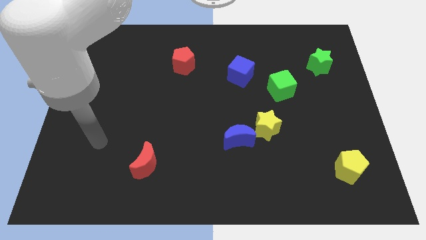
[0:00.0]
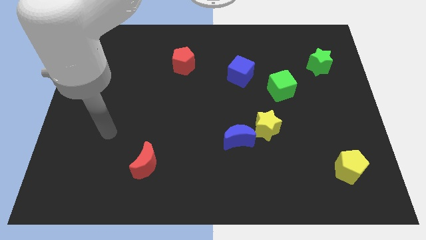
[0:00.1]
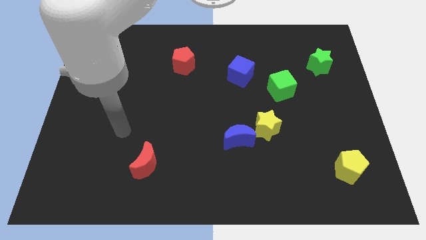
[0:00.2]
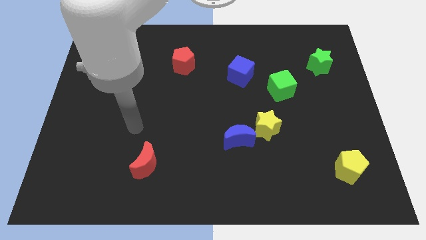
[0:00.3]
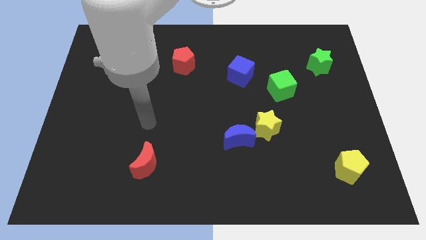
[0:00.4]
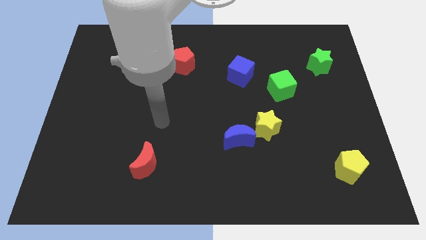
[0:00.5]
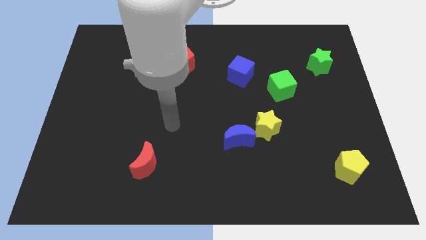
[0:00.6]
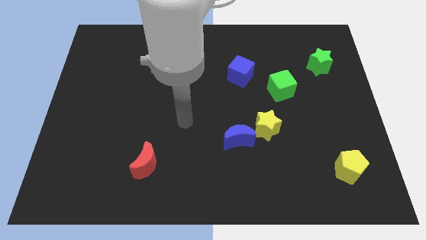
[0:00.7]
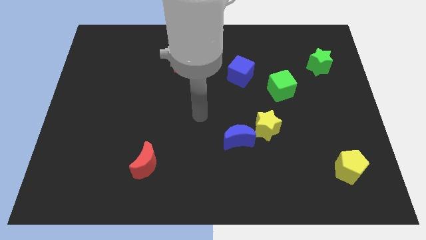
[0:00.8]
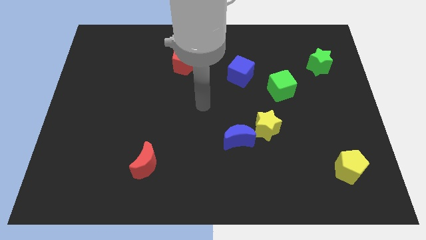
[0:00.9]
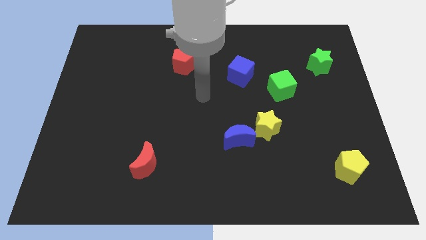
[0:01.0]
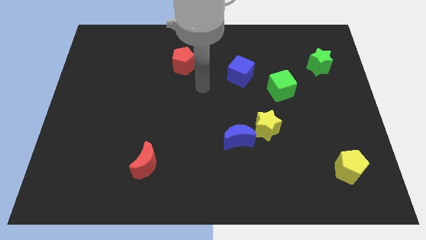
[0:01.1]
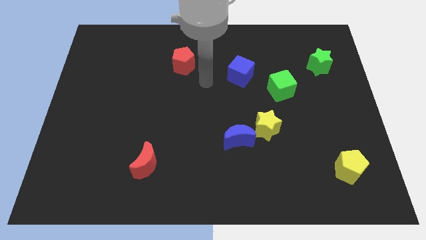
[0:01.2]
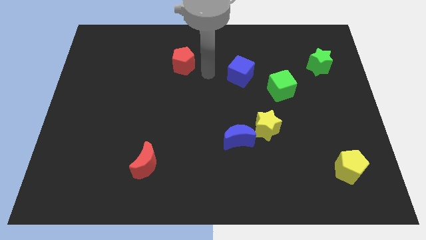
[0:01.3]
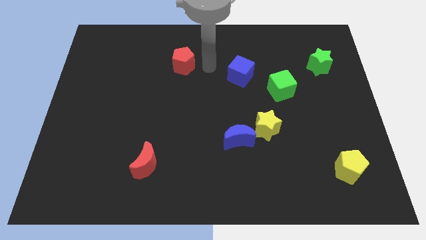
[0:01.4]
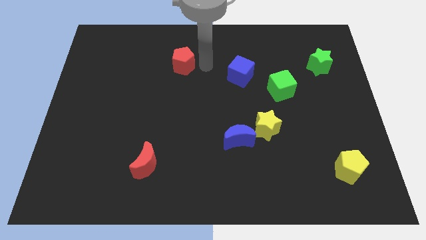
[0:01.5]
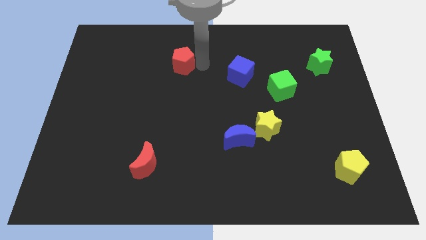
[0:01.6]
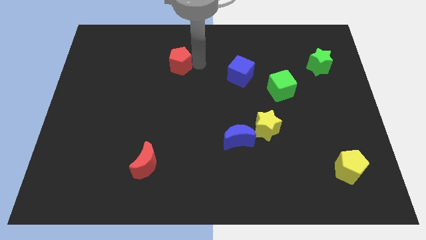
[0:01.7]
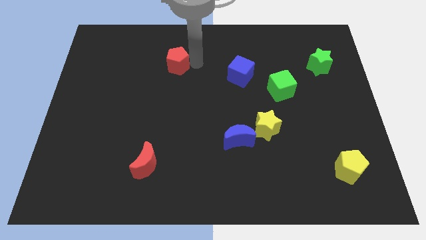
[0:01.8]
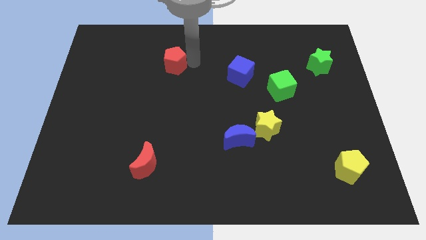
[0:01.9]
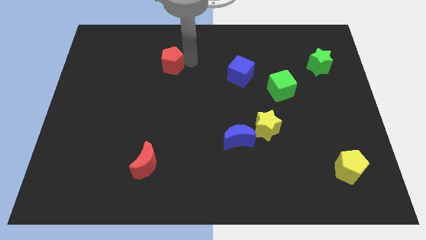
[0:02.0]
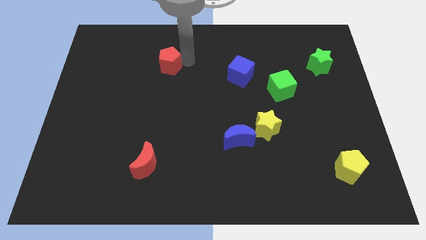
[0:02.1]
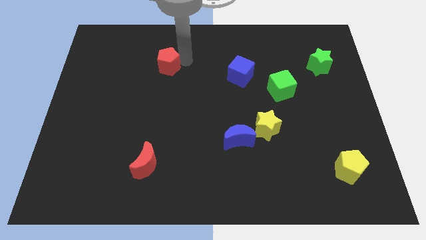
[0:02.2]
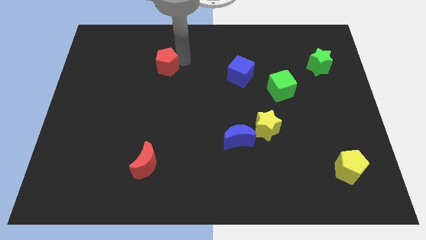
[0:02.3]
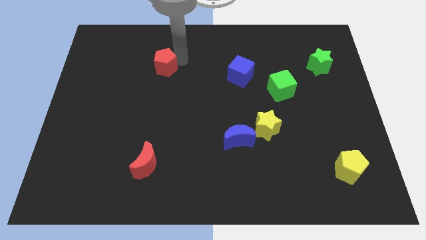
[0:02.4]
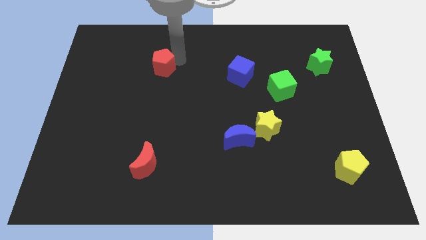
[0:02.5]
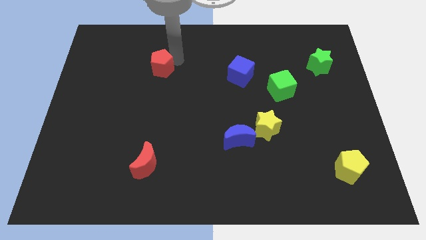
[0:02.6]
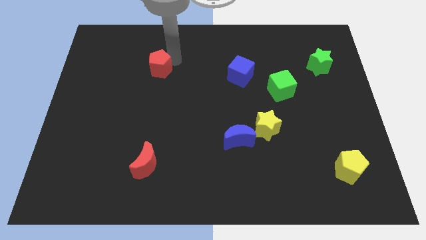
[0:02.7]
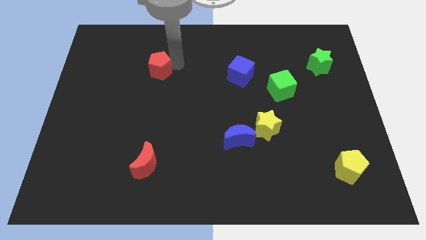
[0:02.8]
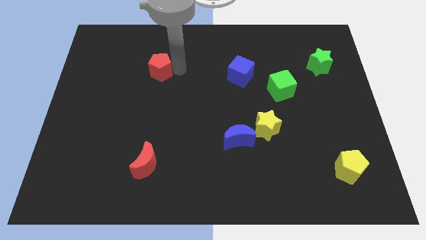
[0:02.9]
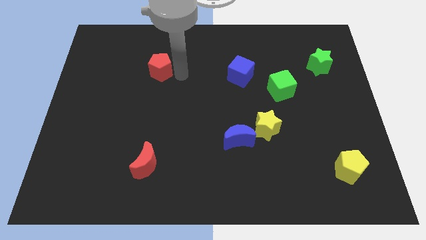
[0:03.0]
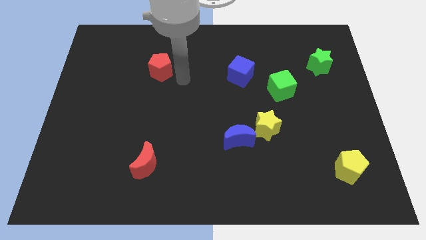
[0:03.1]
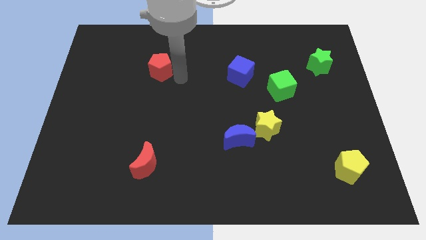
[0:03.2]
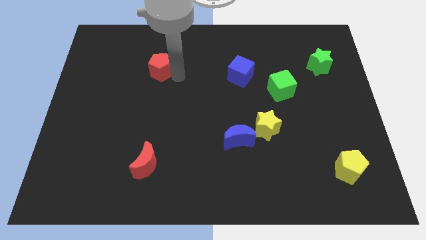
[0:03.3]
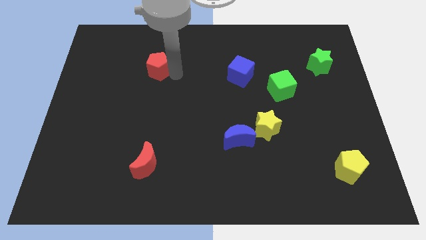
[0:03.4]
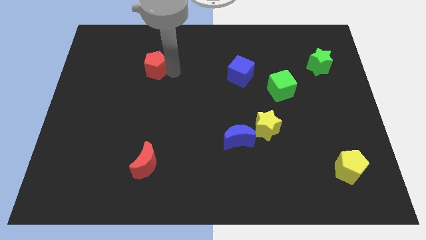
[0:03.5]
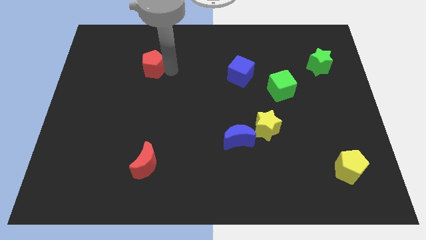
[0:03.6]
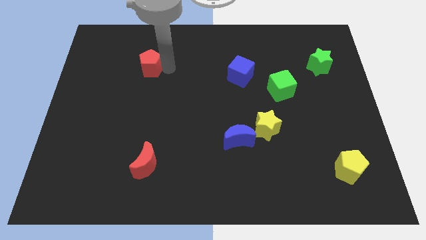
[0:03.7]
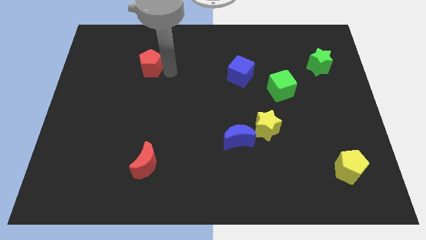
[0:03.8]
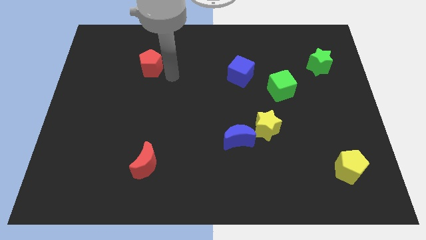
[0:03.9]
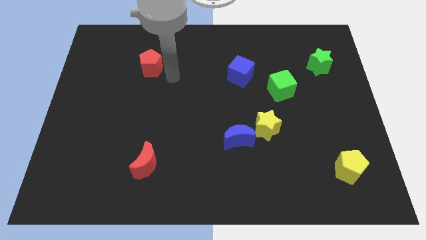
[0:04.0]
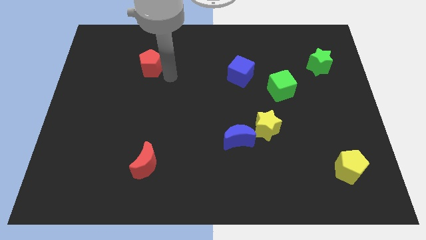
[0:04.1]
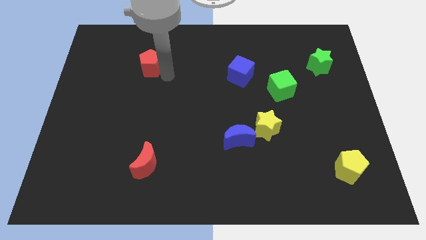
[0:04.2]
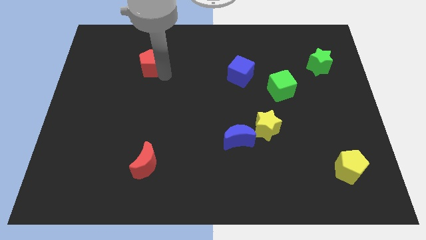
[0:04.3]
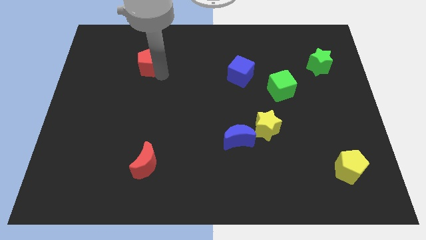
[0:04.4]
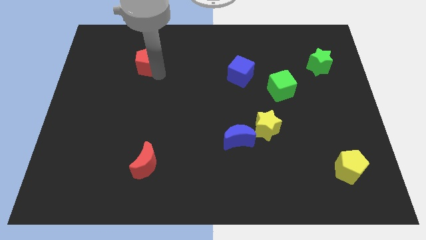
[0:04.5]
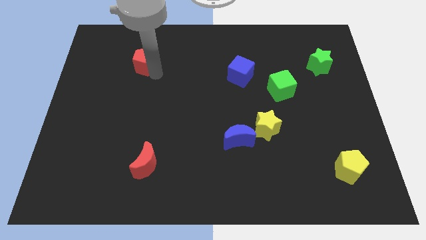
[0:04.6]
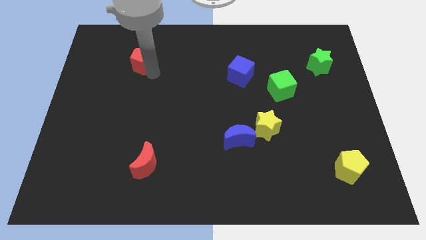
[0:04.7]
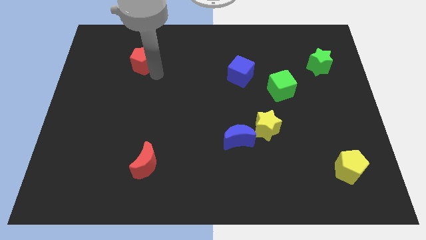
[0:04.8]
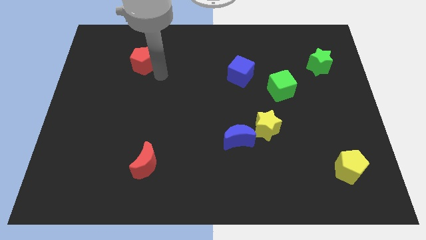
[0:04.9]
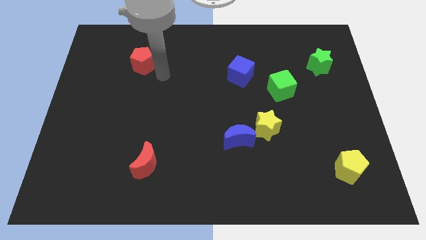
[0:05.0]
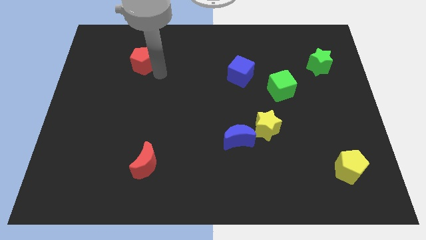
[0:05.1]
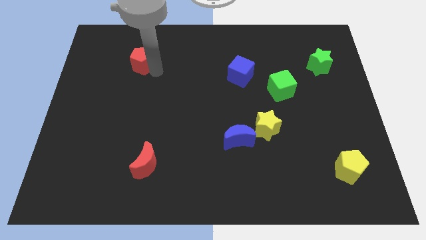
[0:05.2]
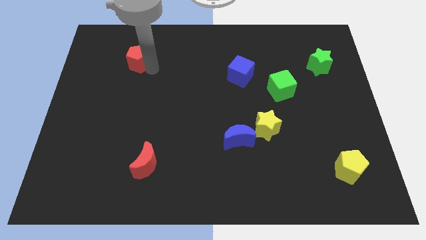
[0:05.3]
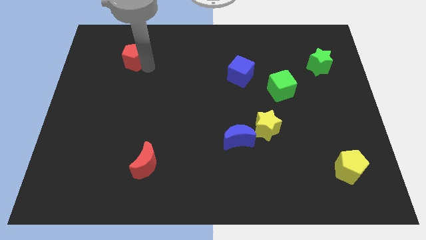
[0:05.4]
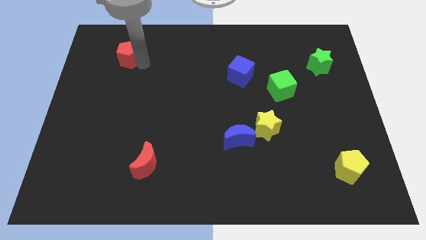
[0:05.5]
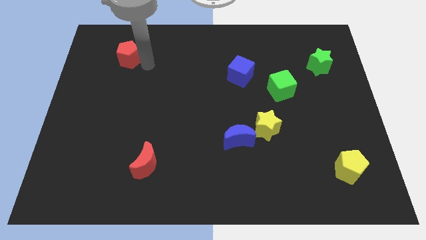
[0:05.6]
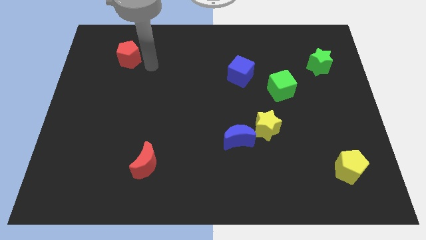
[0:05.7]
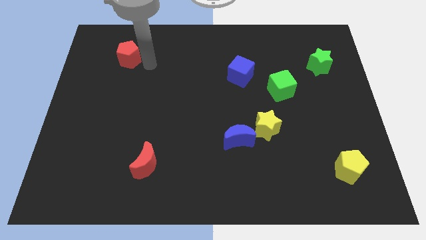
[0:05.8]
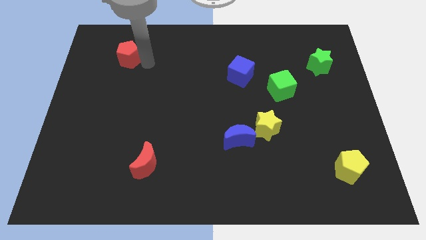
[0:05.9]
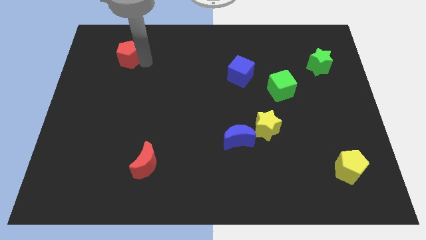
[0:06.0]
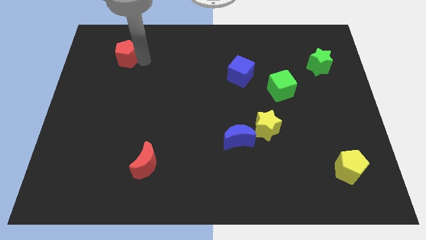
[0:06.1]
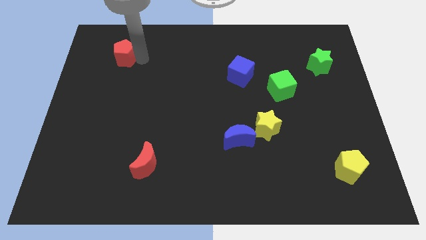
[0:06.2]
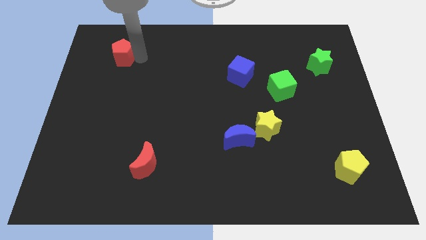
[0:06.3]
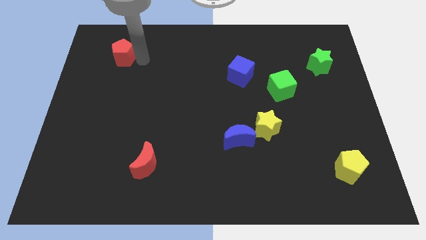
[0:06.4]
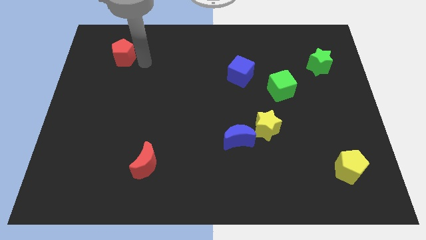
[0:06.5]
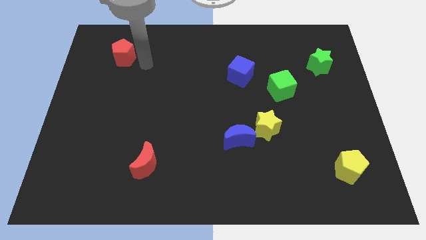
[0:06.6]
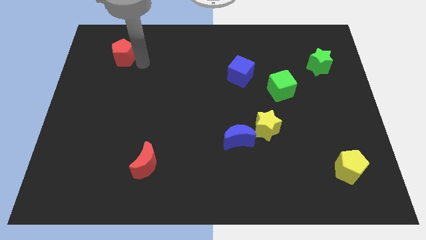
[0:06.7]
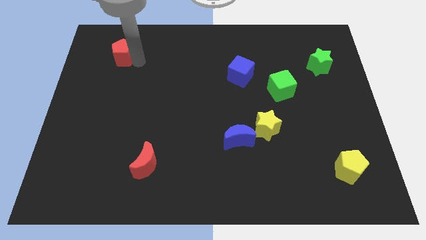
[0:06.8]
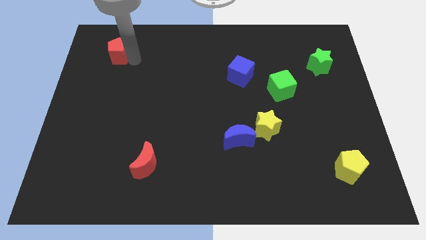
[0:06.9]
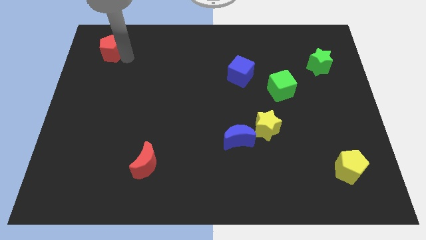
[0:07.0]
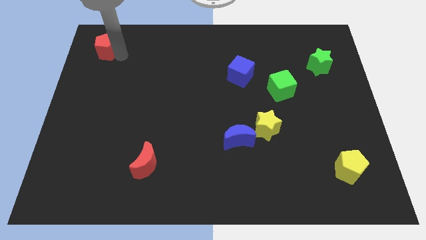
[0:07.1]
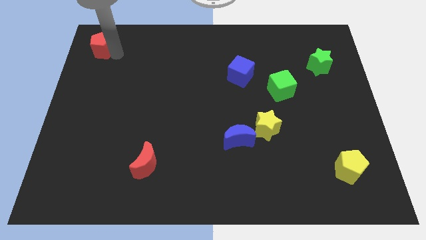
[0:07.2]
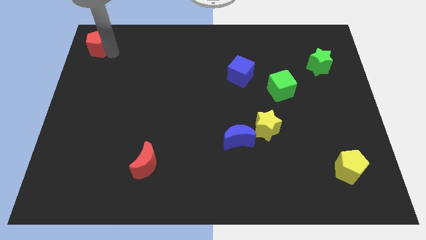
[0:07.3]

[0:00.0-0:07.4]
push the red pentagon to the top left

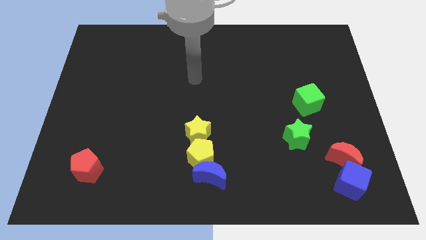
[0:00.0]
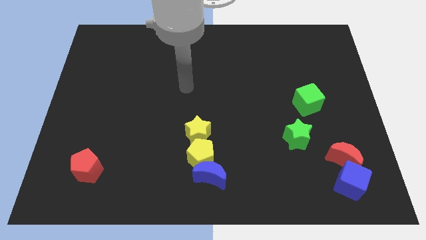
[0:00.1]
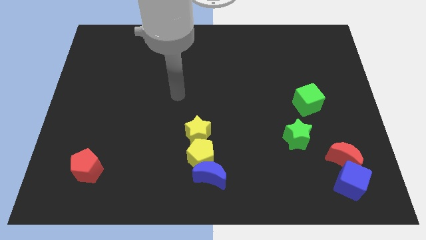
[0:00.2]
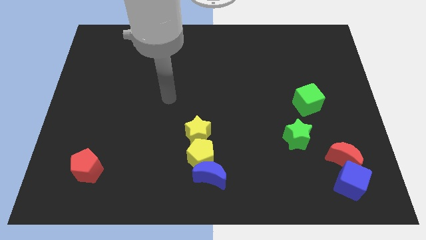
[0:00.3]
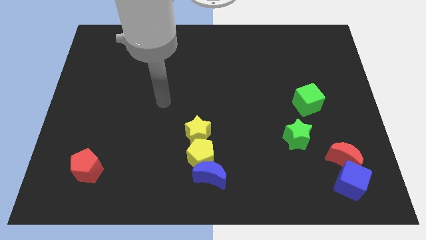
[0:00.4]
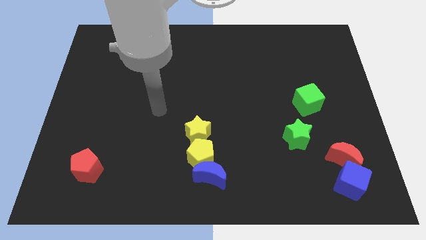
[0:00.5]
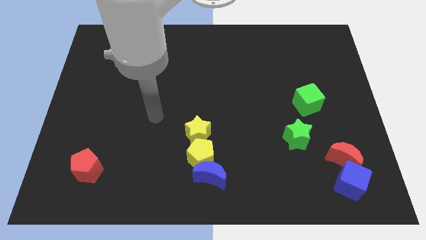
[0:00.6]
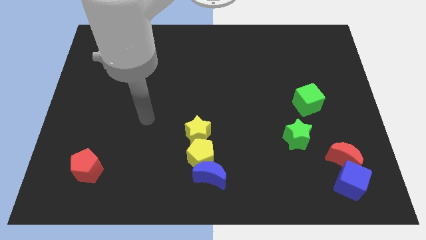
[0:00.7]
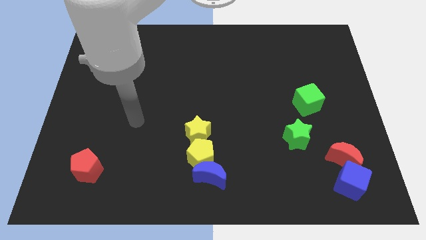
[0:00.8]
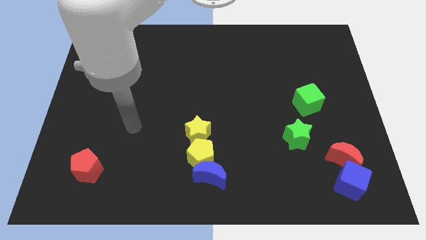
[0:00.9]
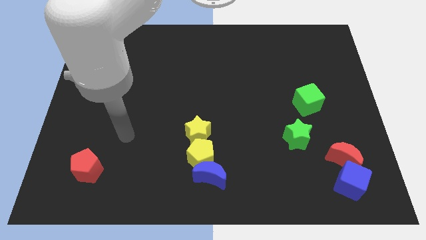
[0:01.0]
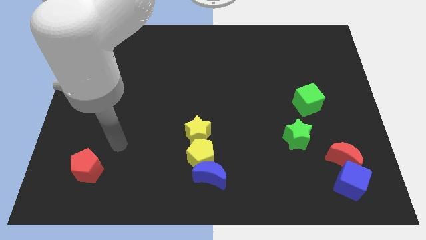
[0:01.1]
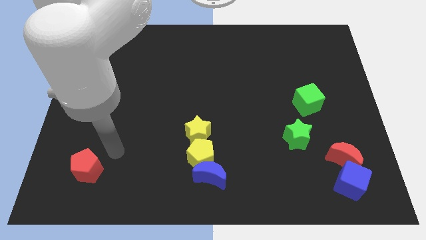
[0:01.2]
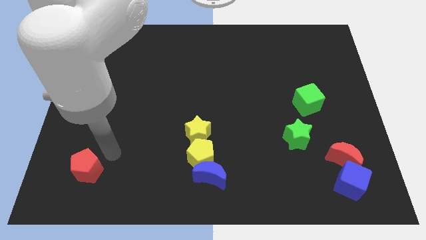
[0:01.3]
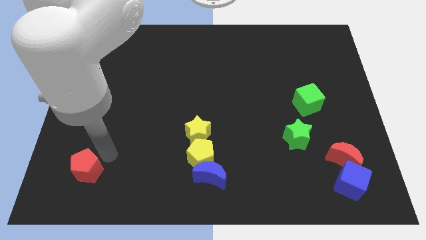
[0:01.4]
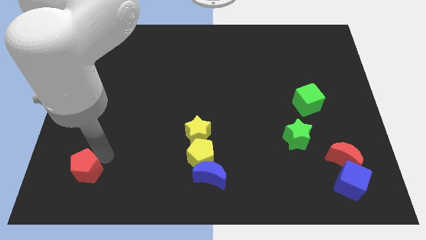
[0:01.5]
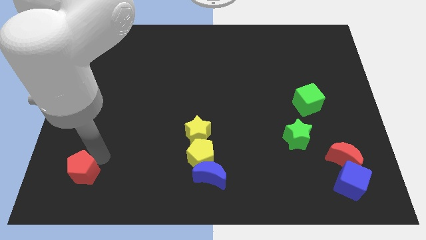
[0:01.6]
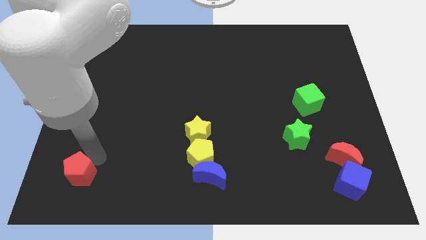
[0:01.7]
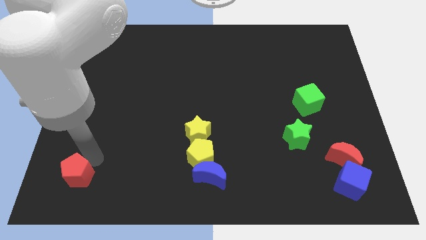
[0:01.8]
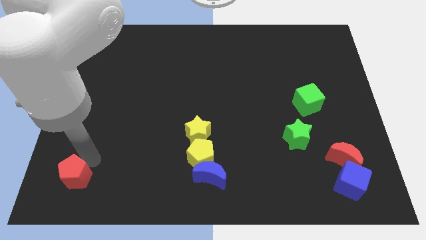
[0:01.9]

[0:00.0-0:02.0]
push the red pentagon to the bottom left of the board
